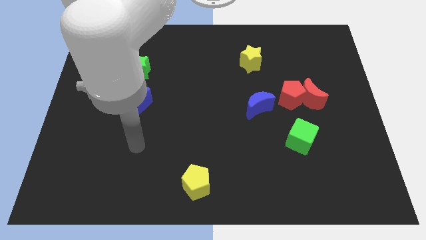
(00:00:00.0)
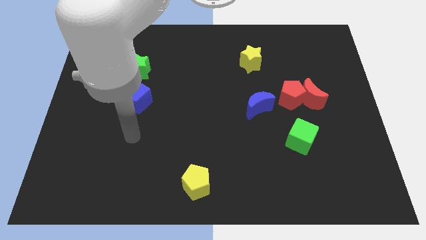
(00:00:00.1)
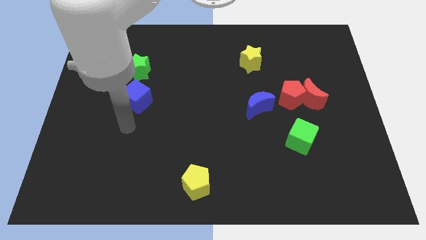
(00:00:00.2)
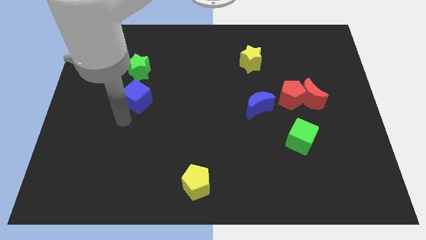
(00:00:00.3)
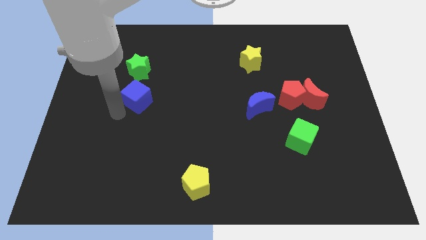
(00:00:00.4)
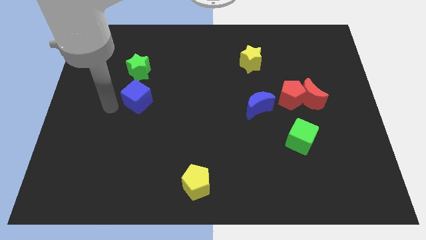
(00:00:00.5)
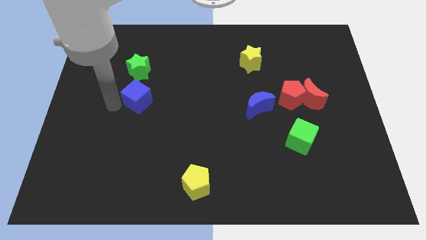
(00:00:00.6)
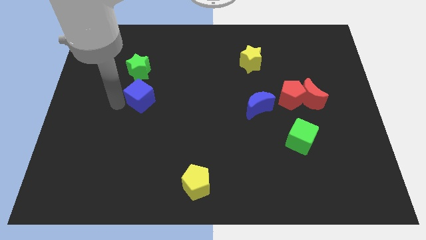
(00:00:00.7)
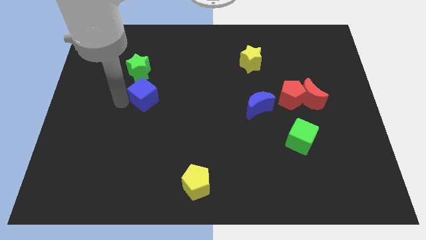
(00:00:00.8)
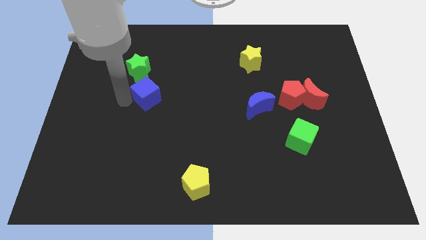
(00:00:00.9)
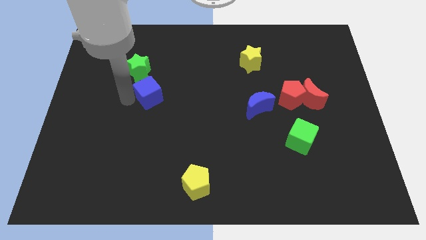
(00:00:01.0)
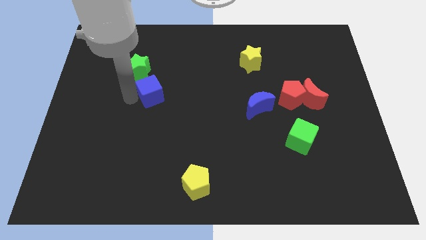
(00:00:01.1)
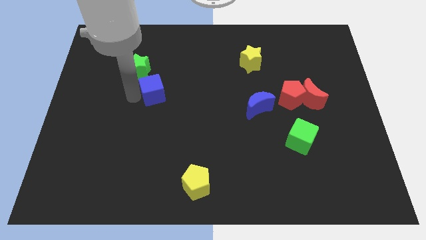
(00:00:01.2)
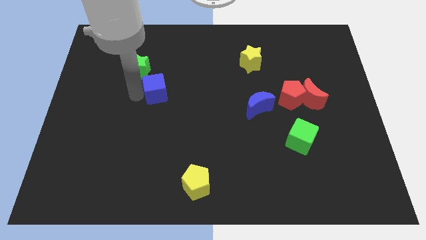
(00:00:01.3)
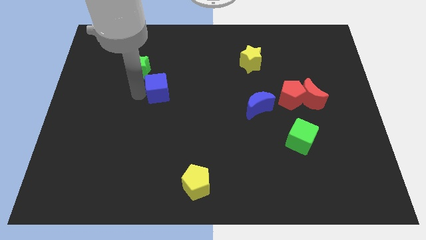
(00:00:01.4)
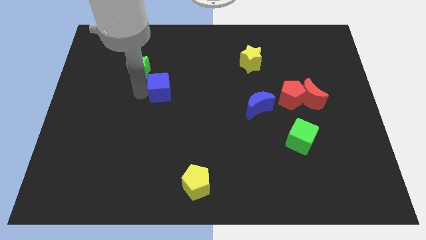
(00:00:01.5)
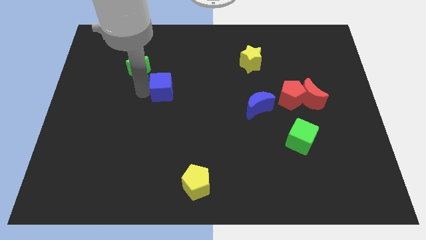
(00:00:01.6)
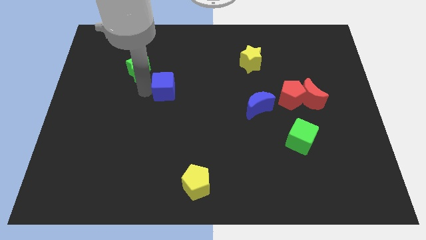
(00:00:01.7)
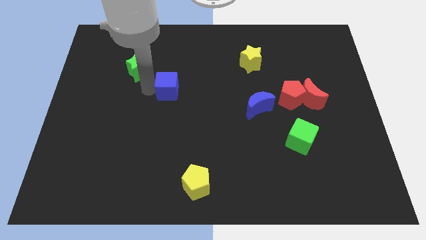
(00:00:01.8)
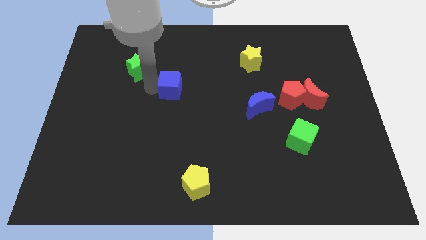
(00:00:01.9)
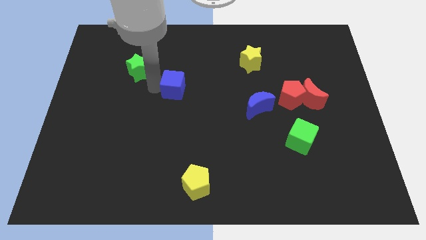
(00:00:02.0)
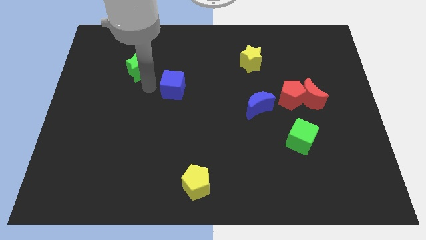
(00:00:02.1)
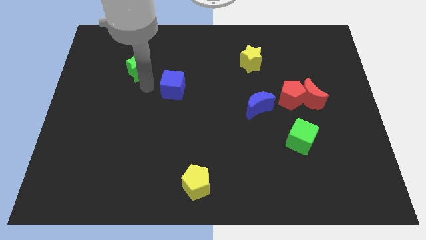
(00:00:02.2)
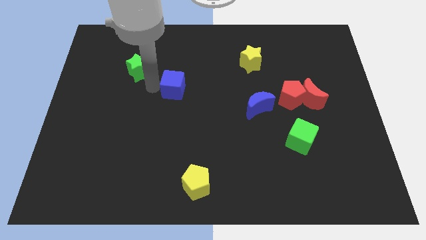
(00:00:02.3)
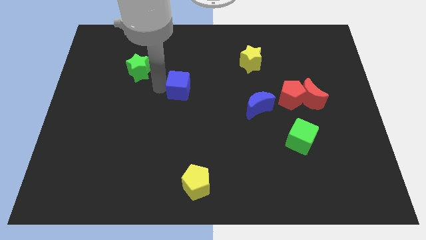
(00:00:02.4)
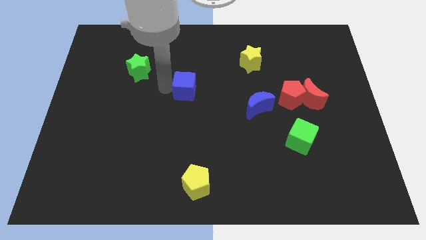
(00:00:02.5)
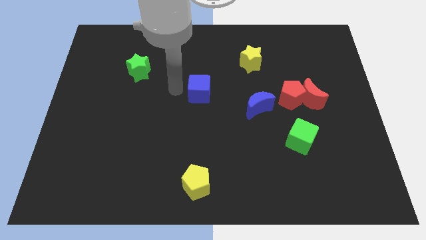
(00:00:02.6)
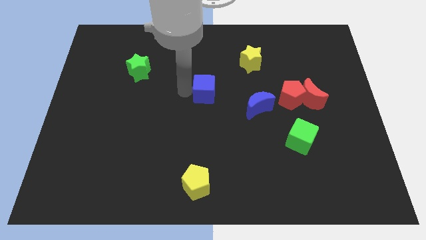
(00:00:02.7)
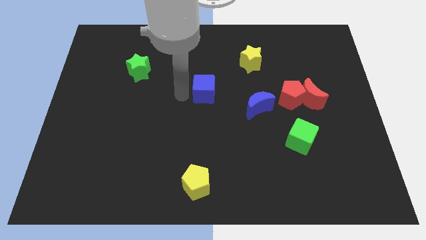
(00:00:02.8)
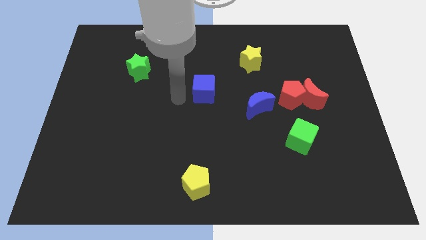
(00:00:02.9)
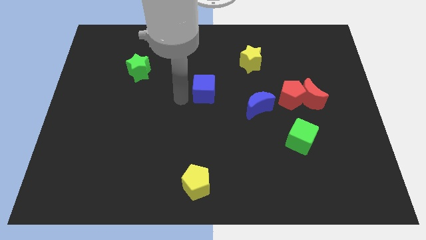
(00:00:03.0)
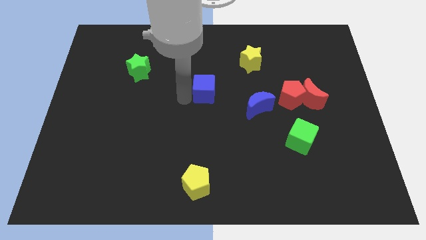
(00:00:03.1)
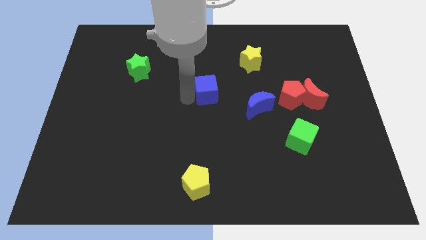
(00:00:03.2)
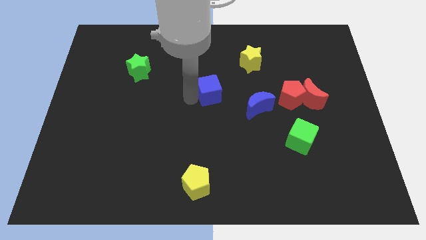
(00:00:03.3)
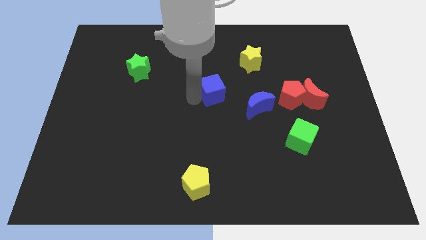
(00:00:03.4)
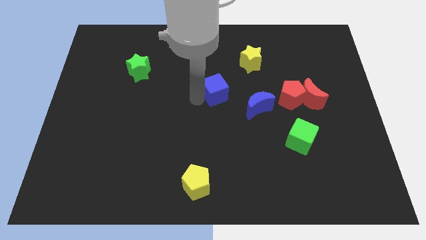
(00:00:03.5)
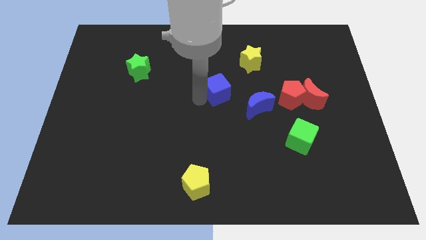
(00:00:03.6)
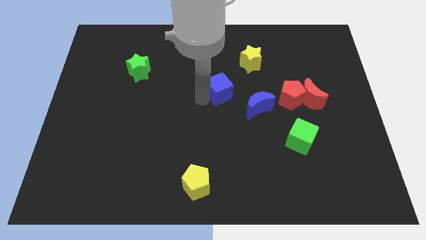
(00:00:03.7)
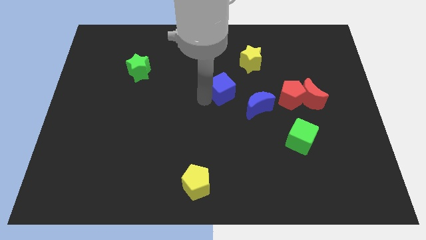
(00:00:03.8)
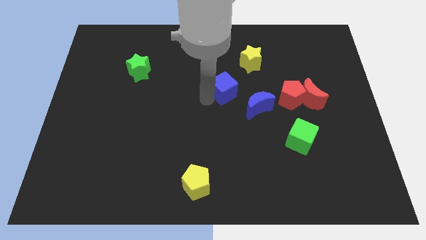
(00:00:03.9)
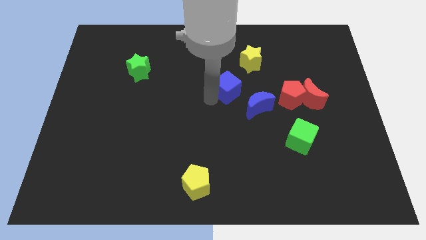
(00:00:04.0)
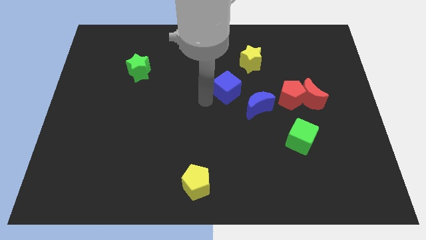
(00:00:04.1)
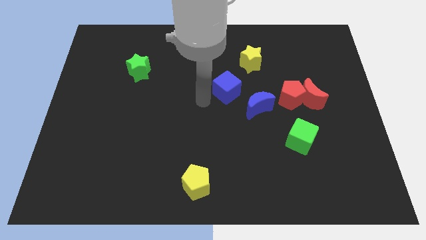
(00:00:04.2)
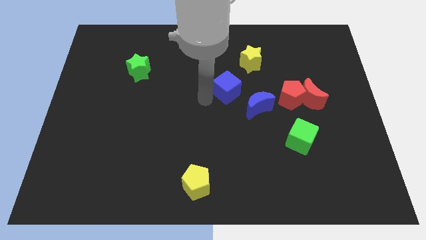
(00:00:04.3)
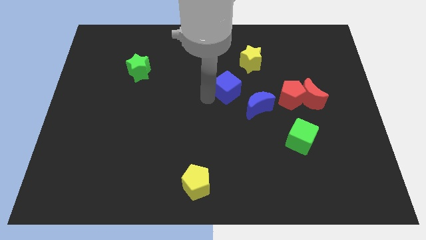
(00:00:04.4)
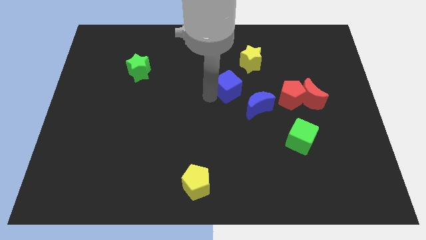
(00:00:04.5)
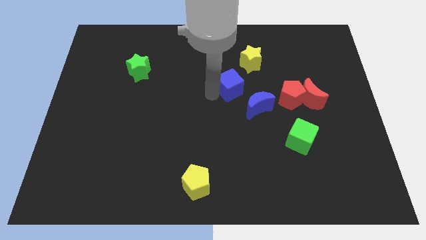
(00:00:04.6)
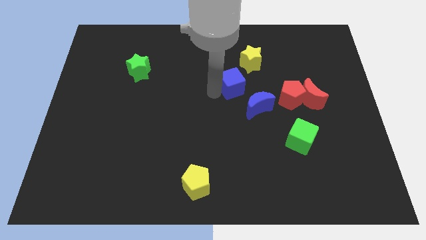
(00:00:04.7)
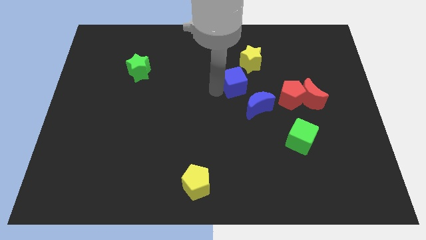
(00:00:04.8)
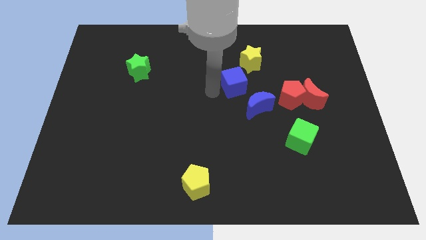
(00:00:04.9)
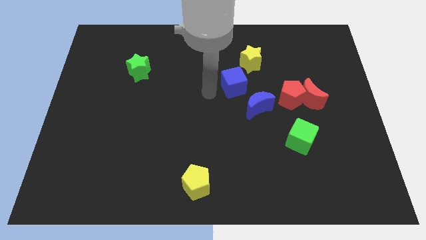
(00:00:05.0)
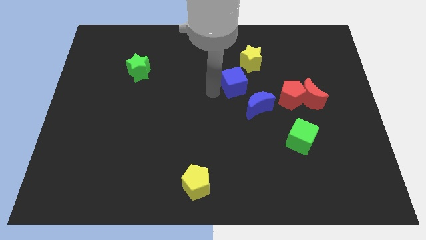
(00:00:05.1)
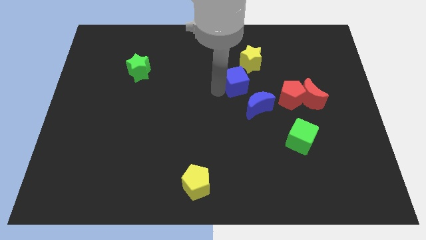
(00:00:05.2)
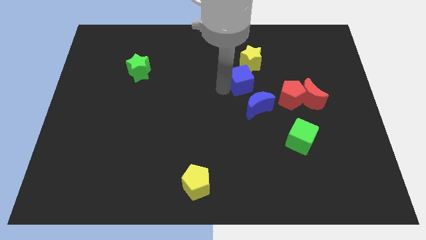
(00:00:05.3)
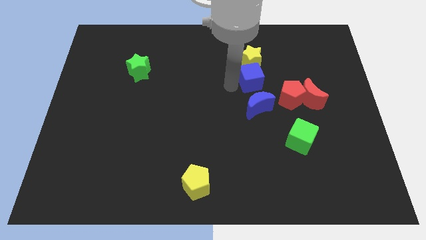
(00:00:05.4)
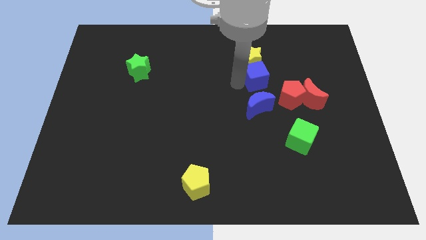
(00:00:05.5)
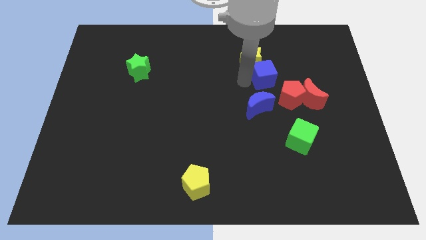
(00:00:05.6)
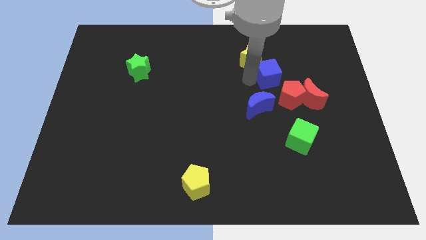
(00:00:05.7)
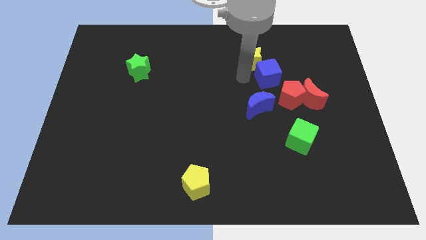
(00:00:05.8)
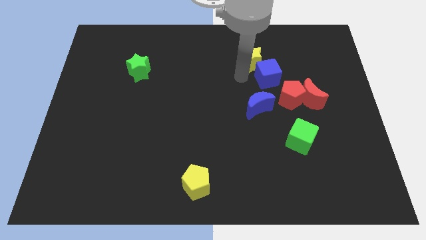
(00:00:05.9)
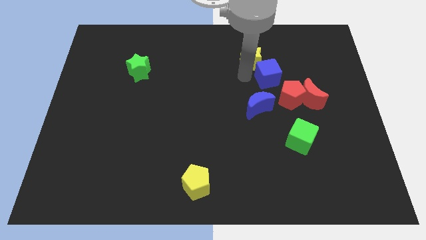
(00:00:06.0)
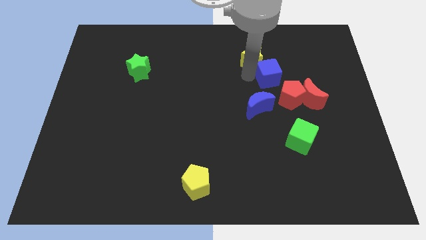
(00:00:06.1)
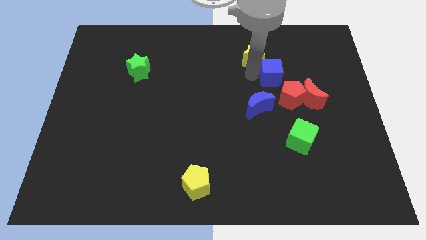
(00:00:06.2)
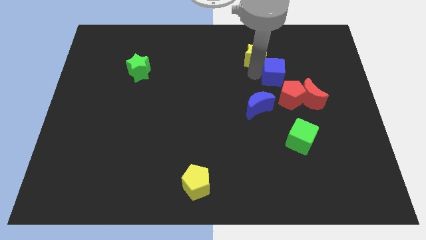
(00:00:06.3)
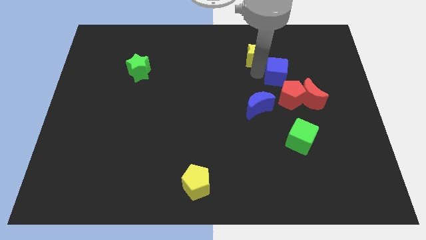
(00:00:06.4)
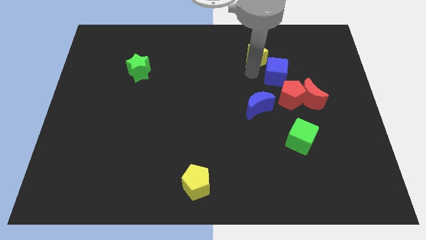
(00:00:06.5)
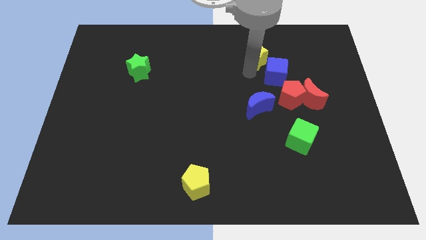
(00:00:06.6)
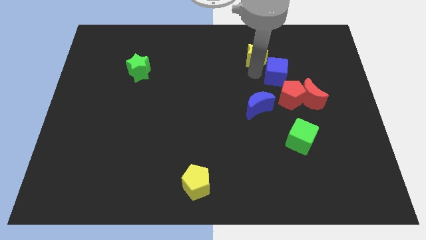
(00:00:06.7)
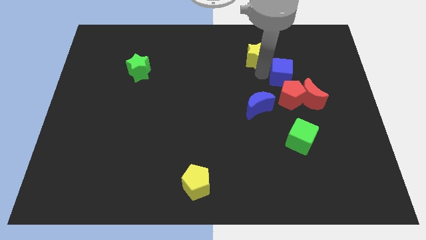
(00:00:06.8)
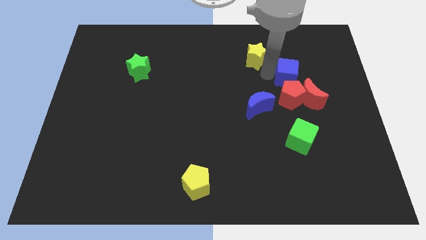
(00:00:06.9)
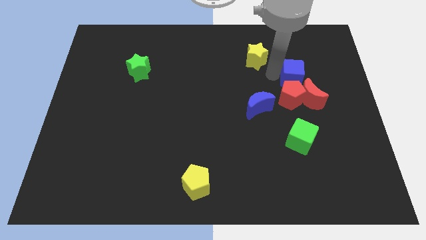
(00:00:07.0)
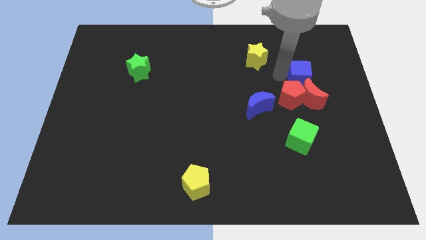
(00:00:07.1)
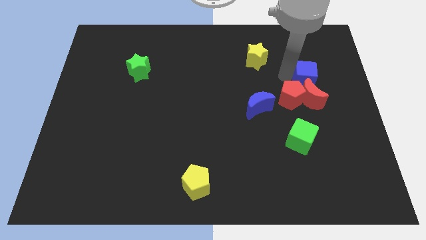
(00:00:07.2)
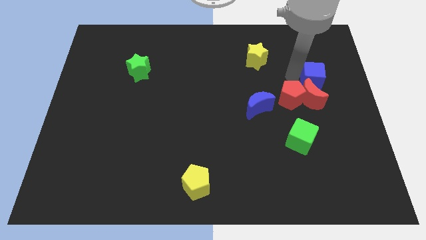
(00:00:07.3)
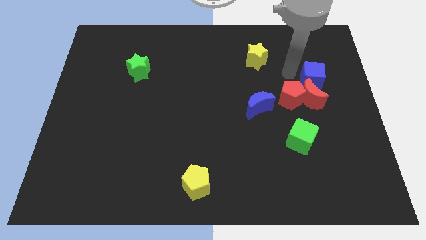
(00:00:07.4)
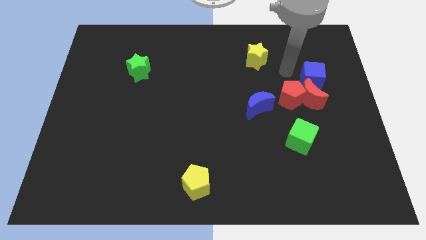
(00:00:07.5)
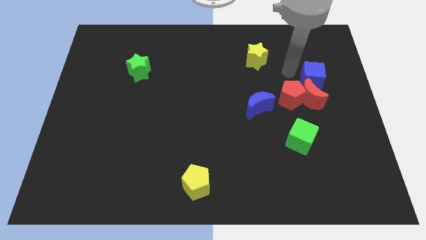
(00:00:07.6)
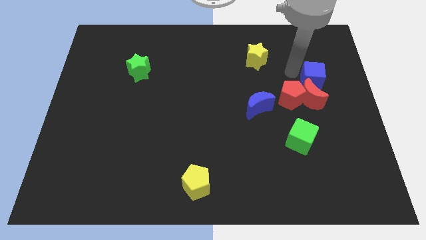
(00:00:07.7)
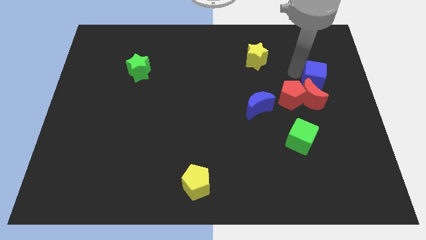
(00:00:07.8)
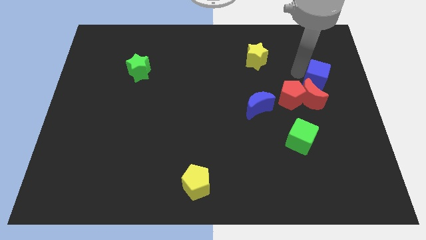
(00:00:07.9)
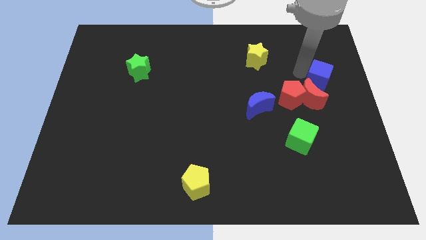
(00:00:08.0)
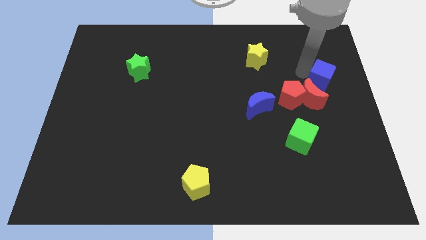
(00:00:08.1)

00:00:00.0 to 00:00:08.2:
move the blue cube to the right side of the board
